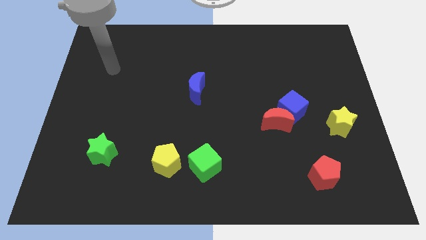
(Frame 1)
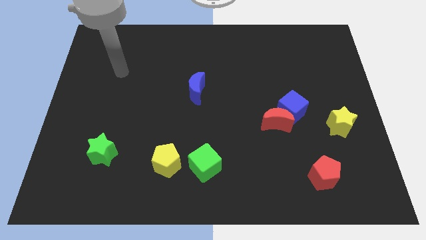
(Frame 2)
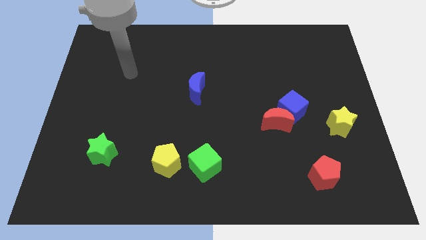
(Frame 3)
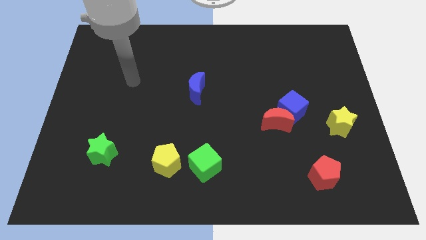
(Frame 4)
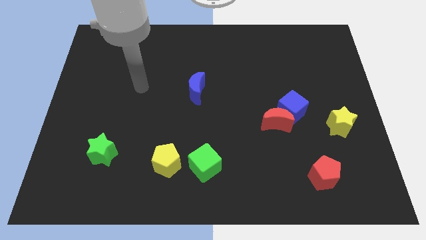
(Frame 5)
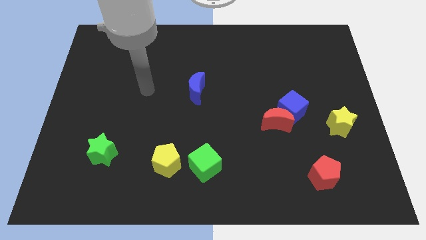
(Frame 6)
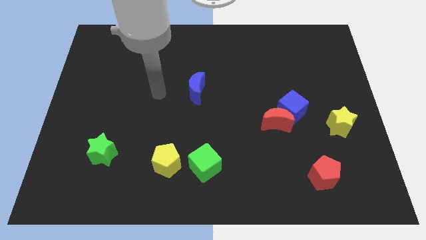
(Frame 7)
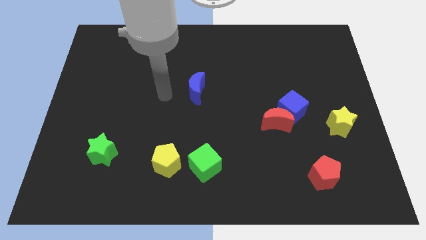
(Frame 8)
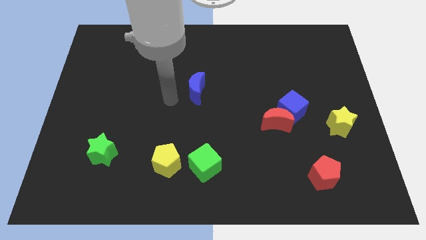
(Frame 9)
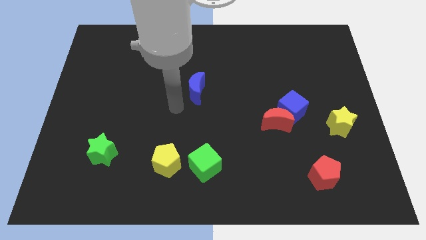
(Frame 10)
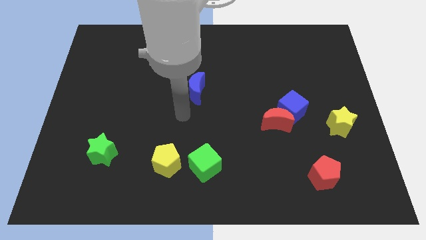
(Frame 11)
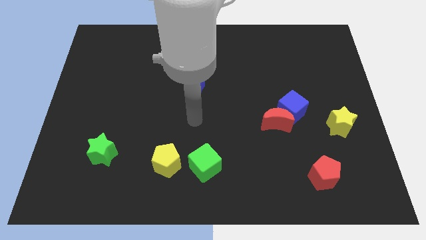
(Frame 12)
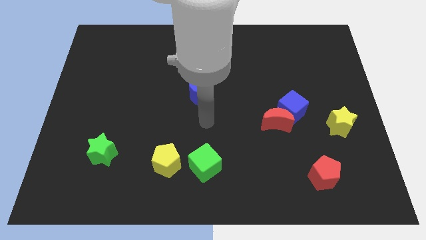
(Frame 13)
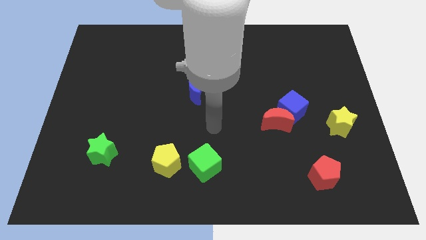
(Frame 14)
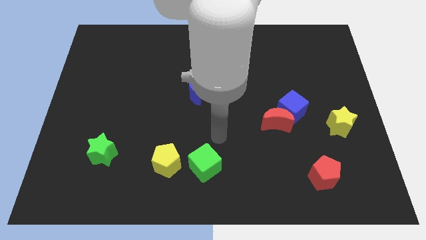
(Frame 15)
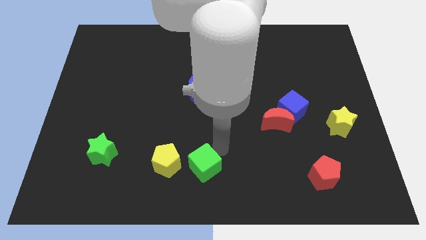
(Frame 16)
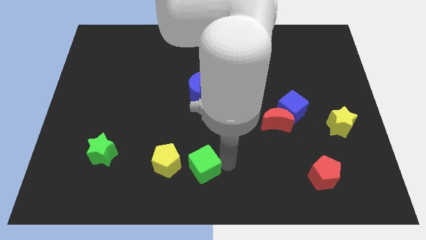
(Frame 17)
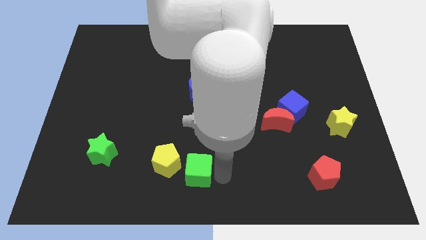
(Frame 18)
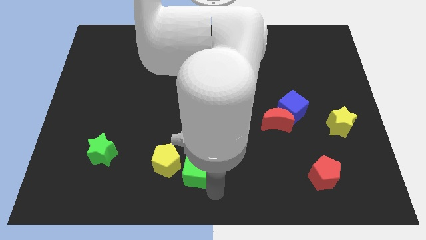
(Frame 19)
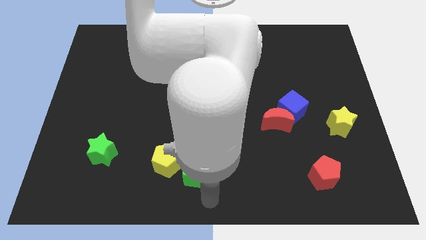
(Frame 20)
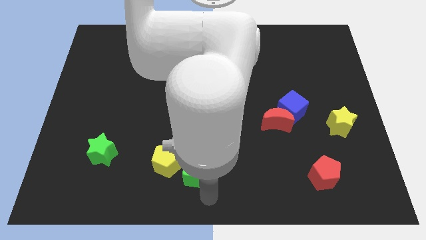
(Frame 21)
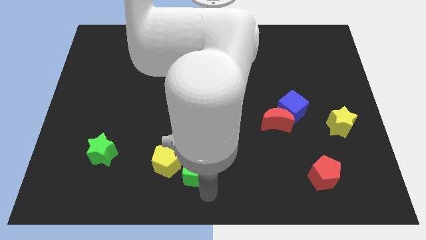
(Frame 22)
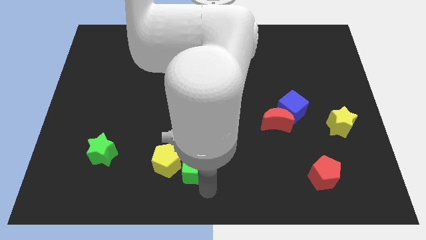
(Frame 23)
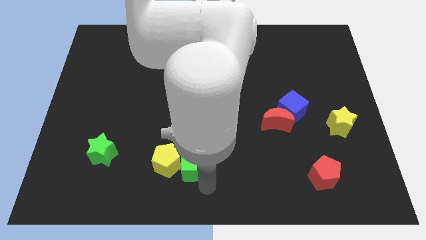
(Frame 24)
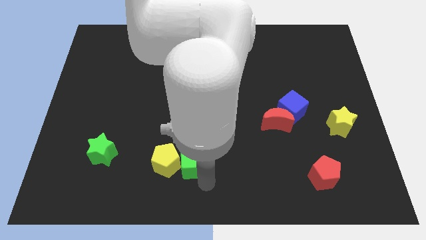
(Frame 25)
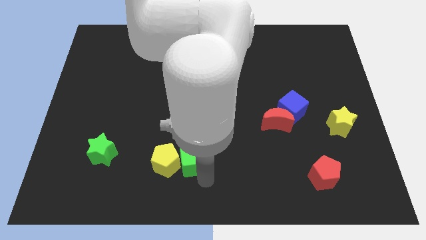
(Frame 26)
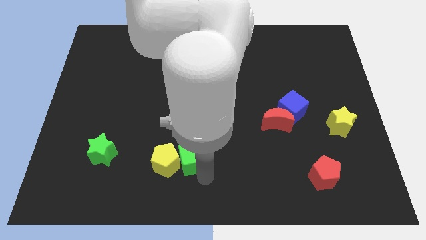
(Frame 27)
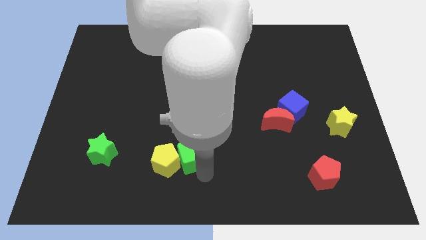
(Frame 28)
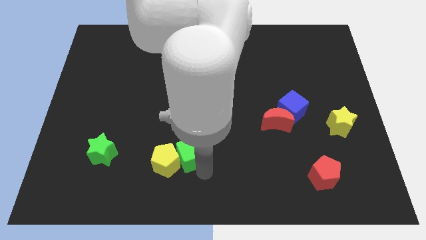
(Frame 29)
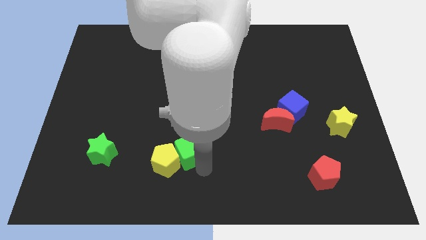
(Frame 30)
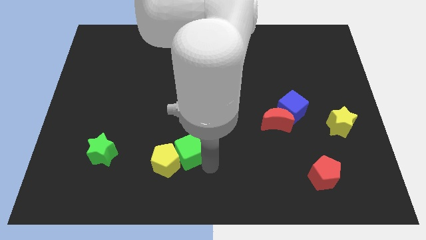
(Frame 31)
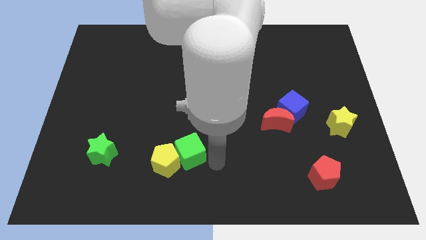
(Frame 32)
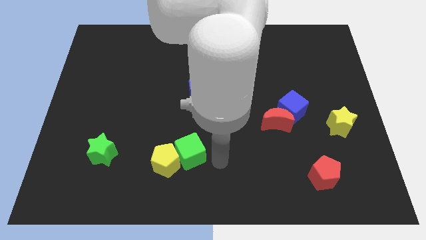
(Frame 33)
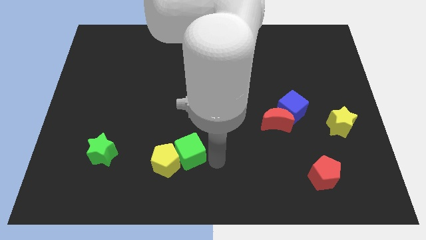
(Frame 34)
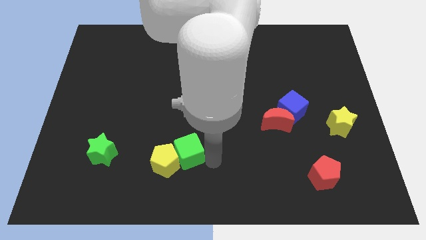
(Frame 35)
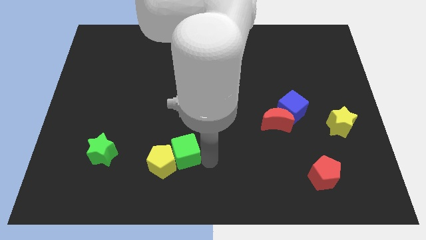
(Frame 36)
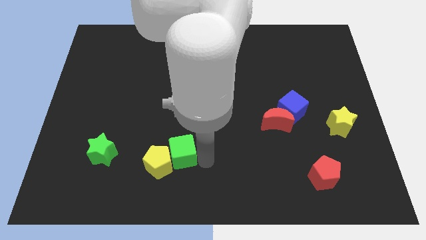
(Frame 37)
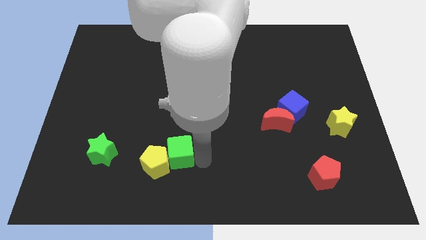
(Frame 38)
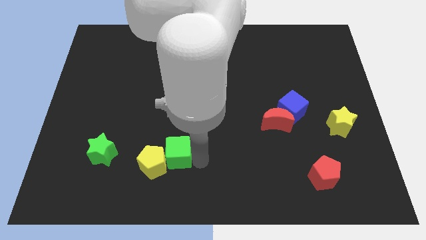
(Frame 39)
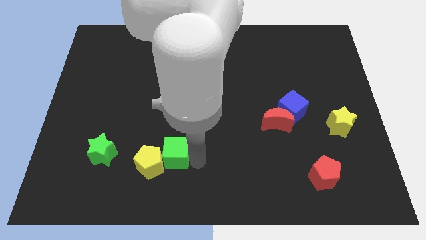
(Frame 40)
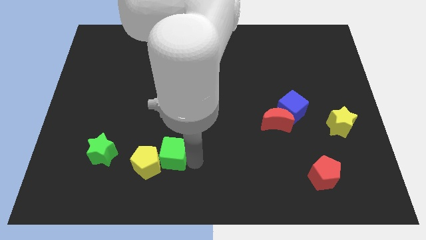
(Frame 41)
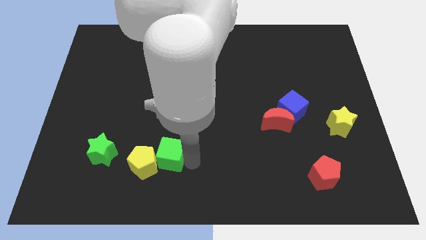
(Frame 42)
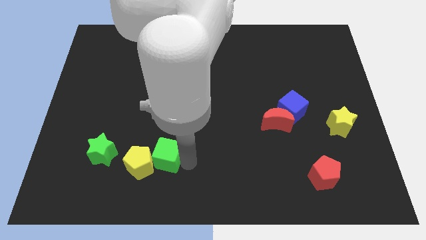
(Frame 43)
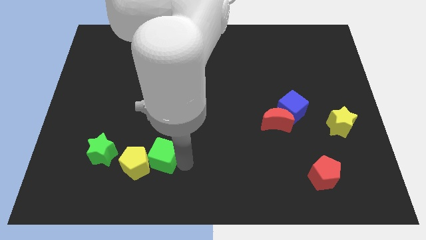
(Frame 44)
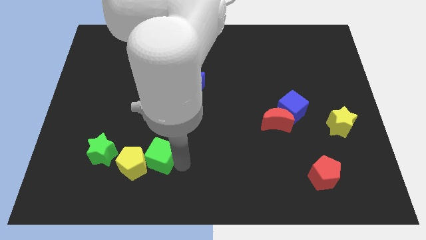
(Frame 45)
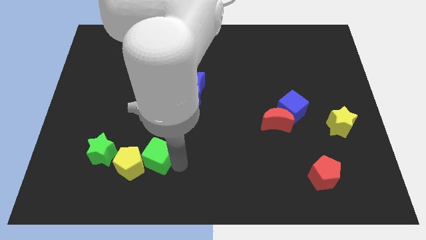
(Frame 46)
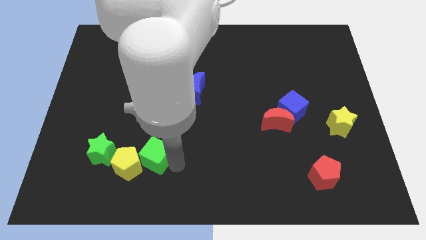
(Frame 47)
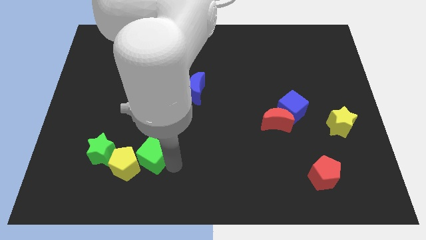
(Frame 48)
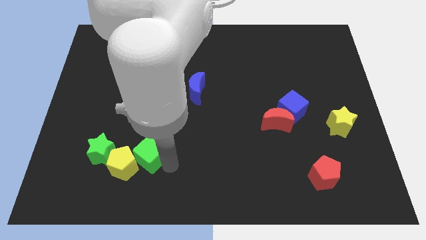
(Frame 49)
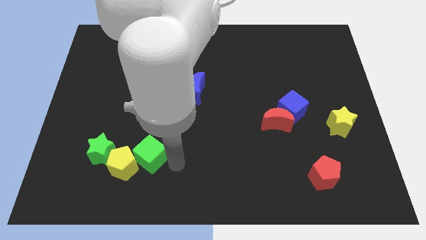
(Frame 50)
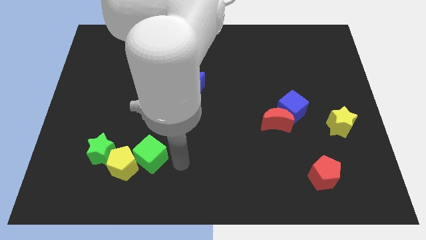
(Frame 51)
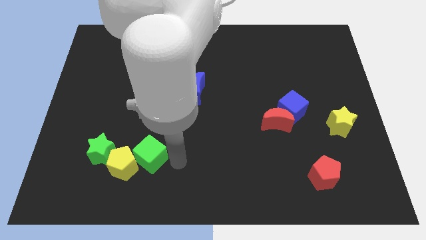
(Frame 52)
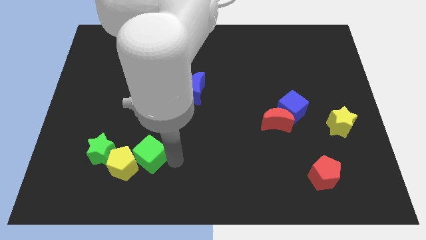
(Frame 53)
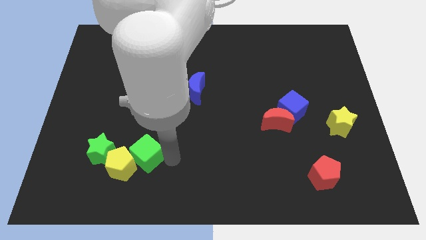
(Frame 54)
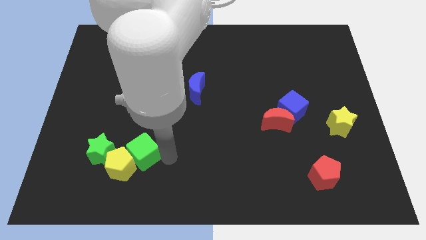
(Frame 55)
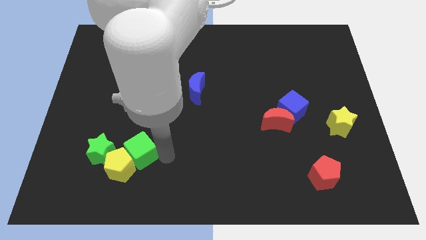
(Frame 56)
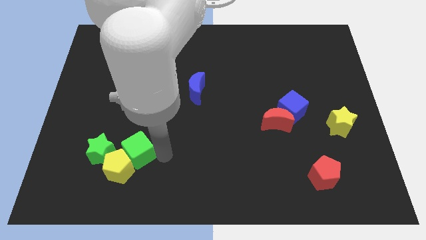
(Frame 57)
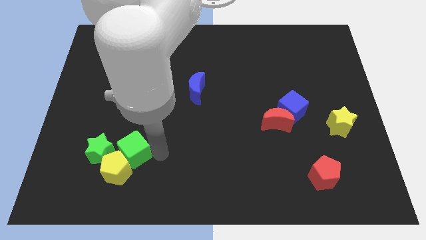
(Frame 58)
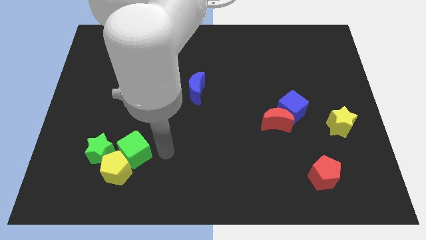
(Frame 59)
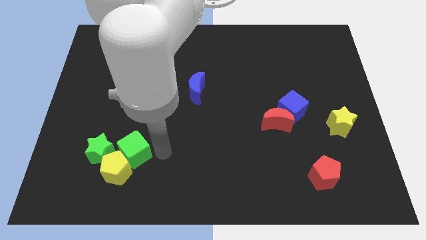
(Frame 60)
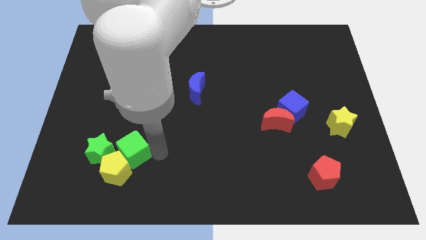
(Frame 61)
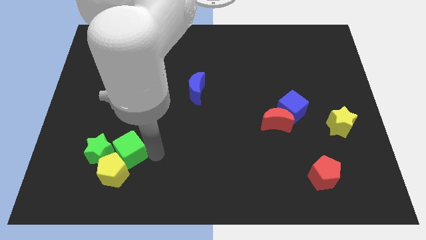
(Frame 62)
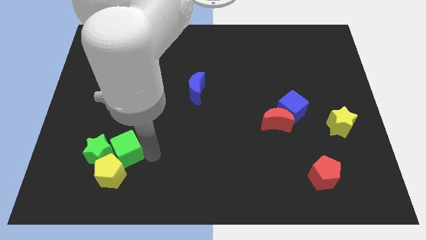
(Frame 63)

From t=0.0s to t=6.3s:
move the green cube close to the green star
